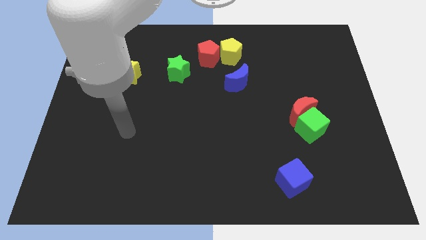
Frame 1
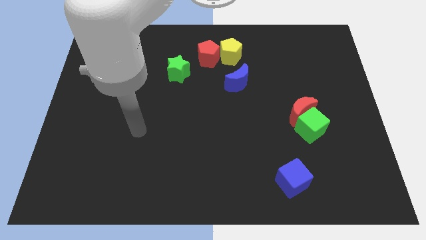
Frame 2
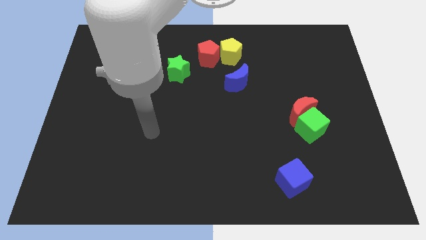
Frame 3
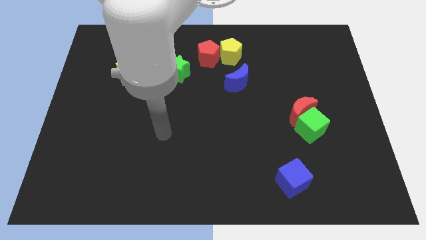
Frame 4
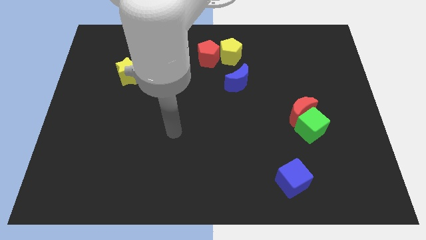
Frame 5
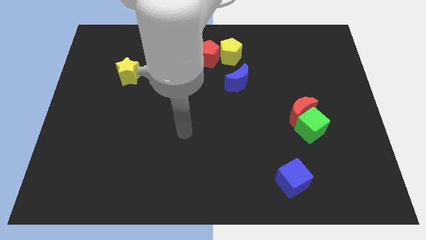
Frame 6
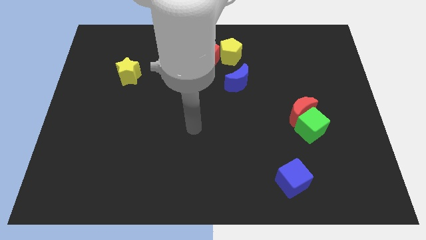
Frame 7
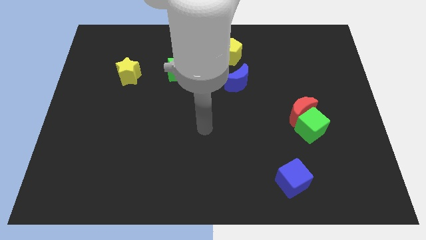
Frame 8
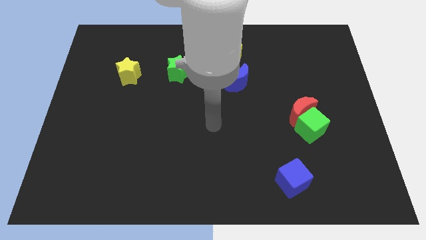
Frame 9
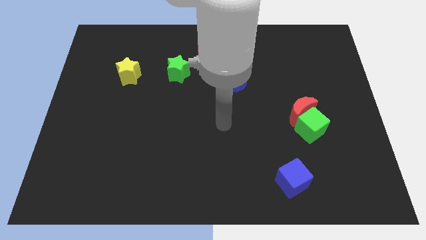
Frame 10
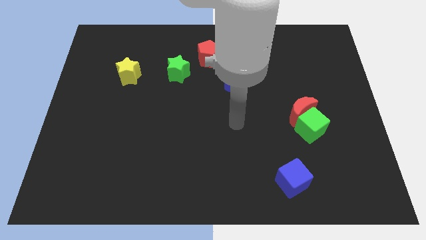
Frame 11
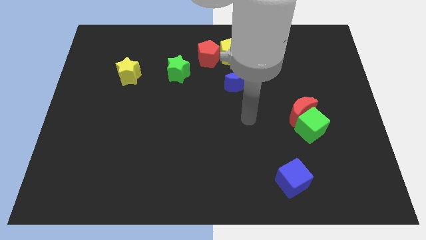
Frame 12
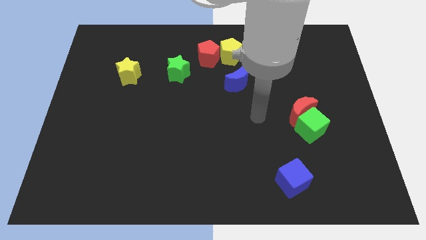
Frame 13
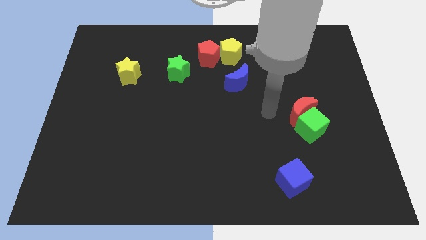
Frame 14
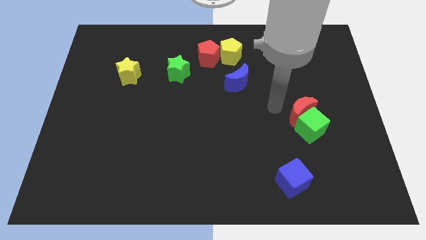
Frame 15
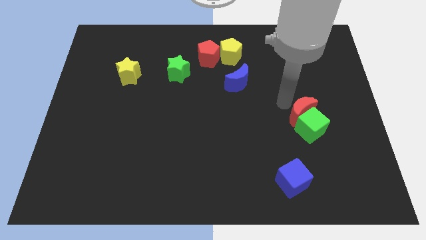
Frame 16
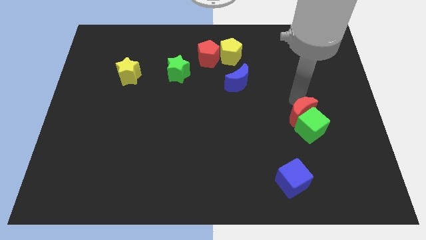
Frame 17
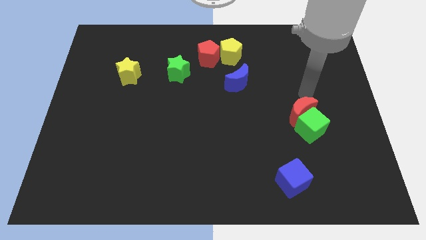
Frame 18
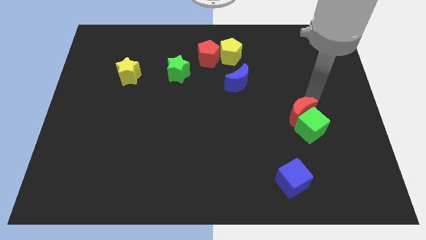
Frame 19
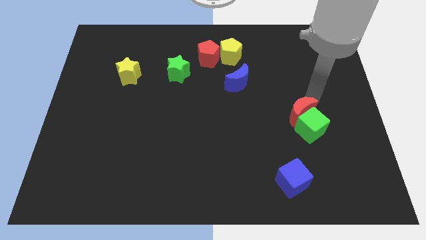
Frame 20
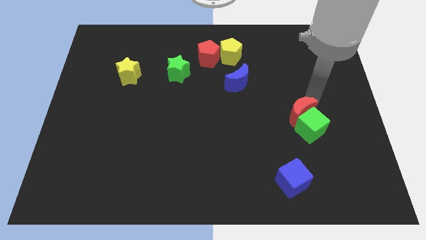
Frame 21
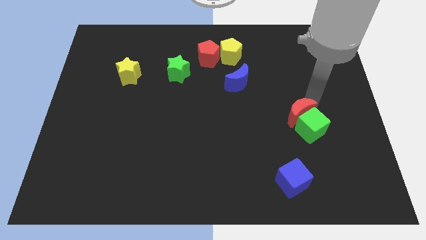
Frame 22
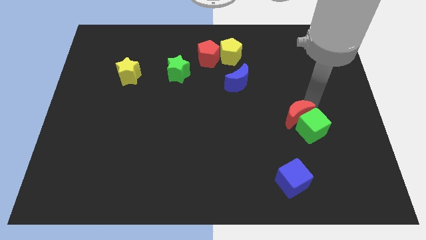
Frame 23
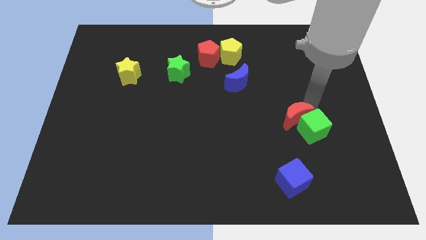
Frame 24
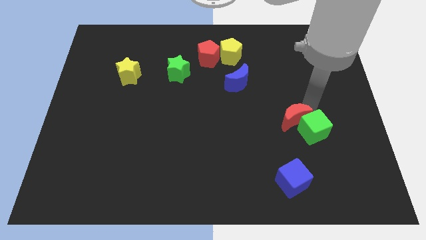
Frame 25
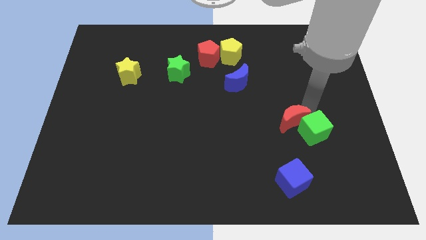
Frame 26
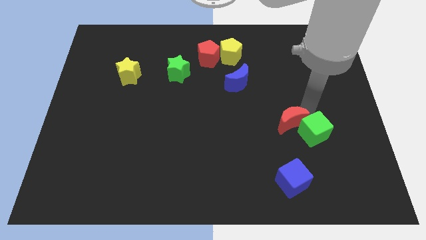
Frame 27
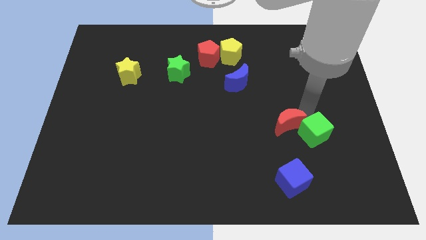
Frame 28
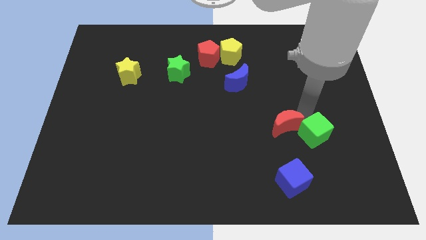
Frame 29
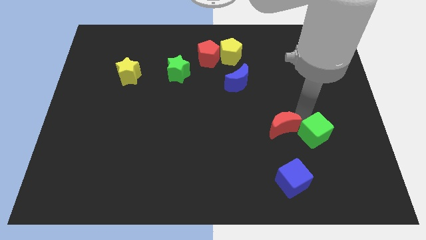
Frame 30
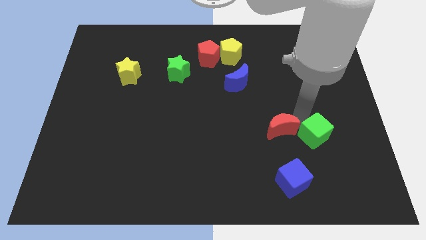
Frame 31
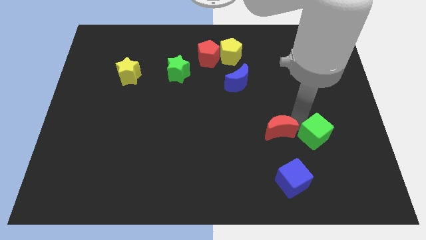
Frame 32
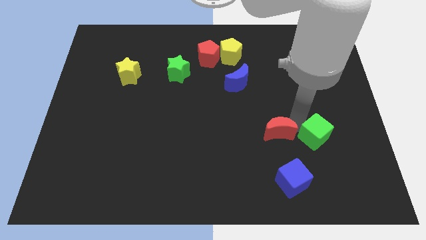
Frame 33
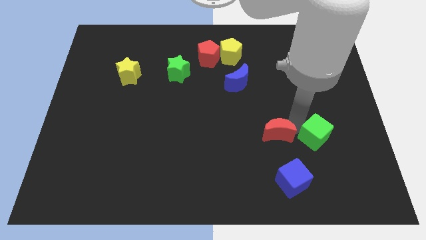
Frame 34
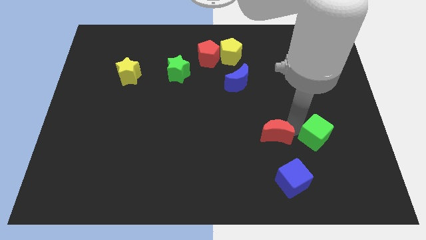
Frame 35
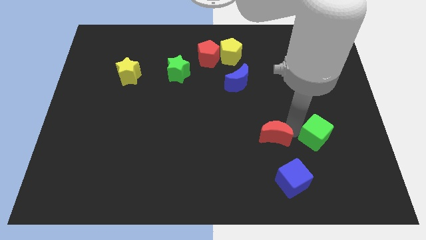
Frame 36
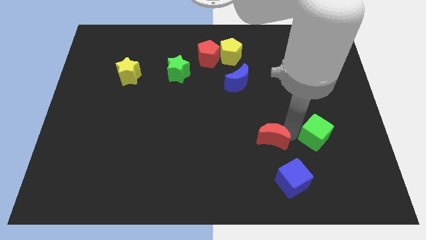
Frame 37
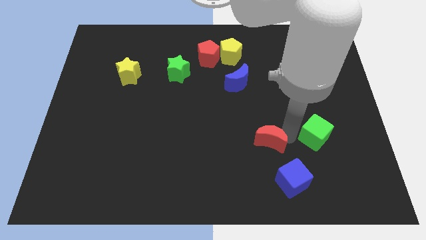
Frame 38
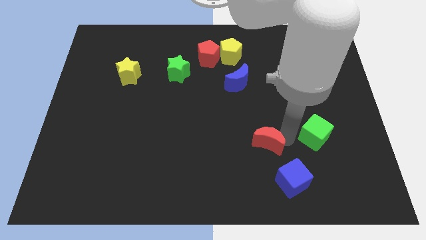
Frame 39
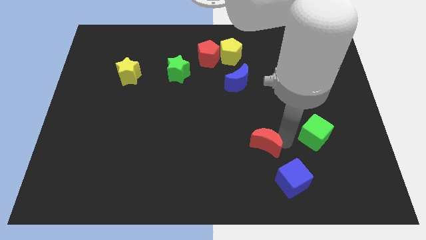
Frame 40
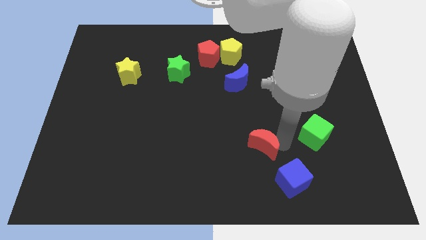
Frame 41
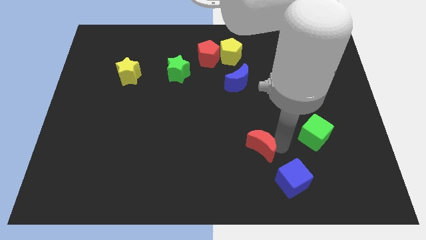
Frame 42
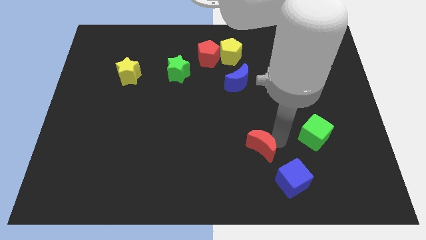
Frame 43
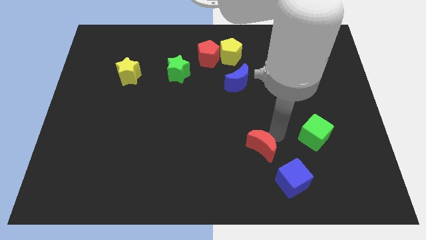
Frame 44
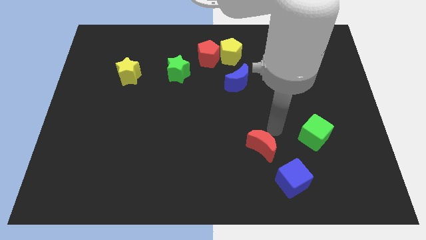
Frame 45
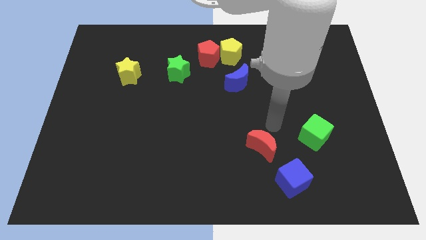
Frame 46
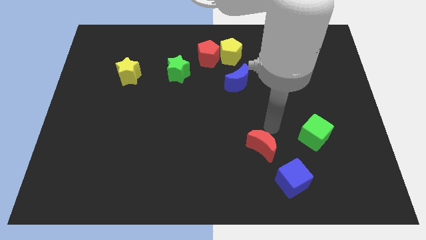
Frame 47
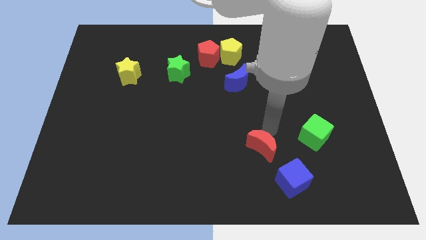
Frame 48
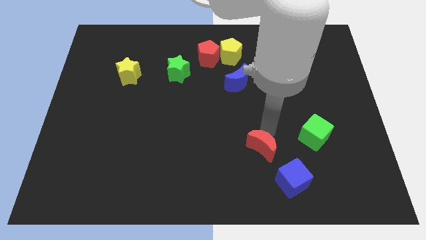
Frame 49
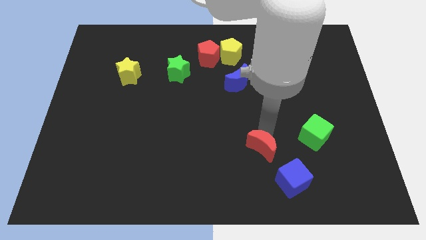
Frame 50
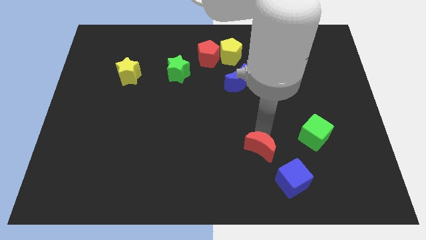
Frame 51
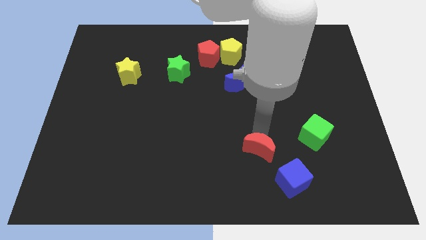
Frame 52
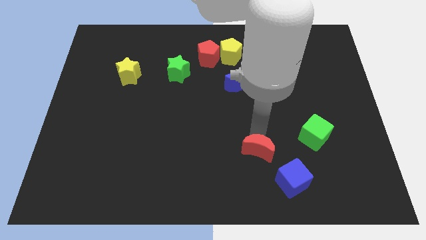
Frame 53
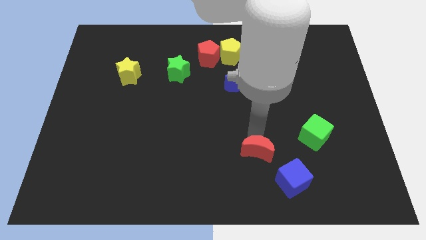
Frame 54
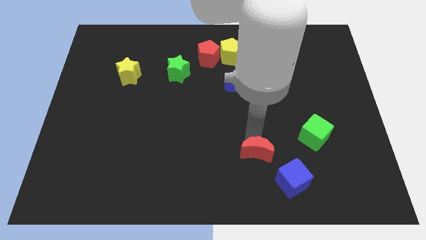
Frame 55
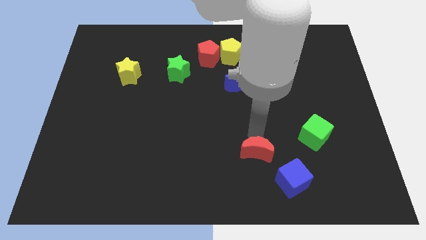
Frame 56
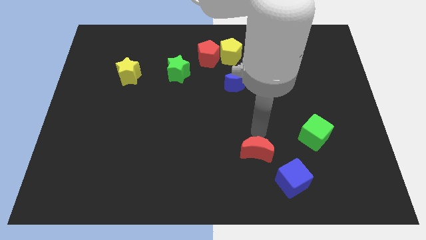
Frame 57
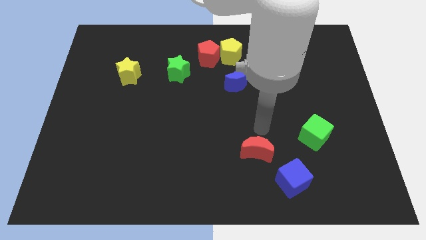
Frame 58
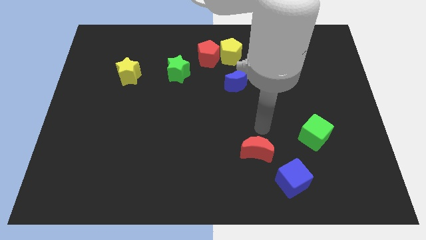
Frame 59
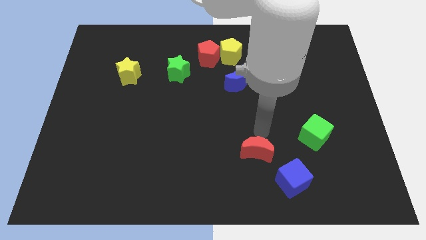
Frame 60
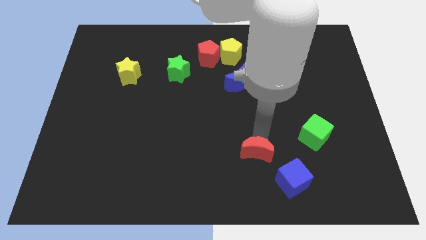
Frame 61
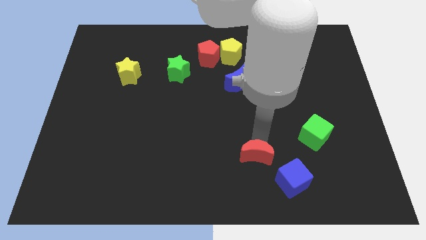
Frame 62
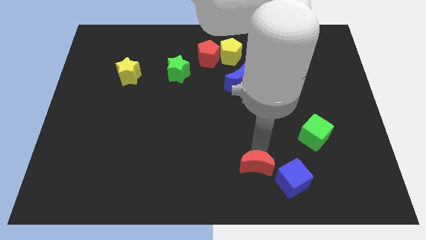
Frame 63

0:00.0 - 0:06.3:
push the red moon to the bottom side
